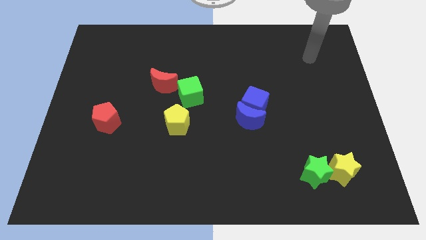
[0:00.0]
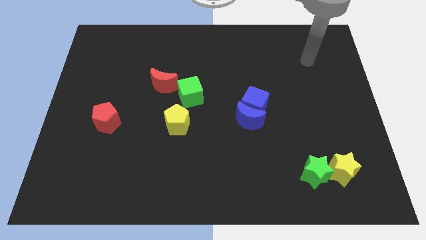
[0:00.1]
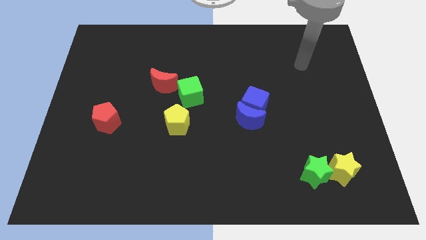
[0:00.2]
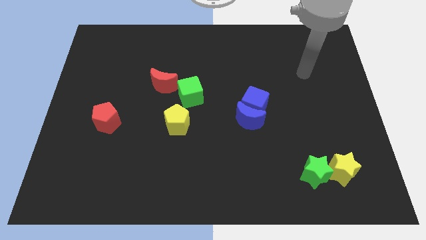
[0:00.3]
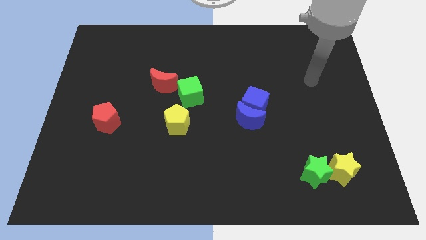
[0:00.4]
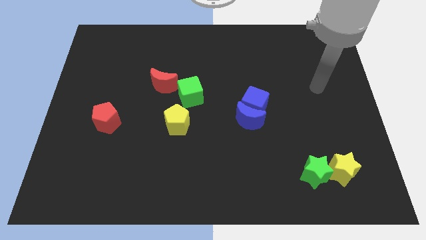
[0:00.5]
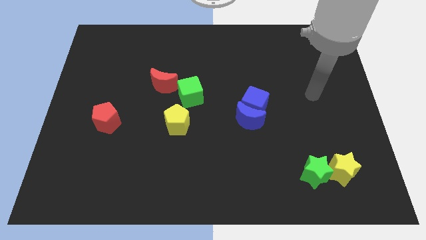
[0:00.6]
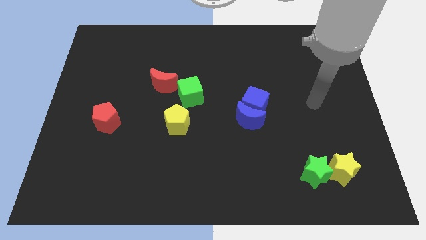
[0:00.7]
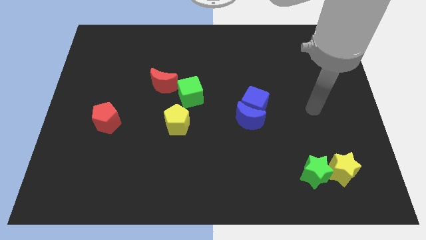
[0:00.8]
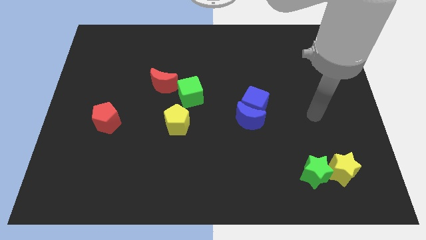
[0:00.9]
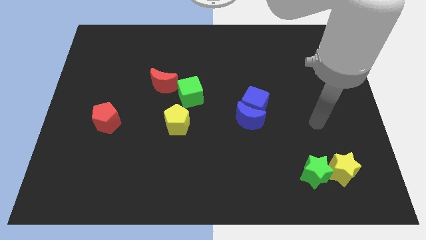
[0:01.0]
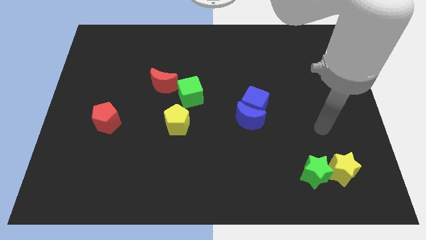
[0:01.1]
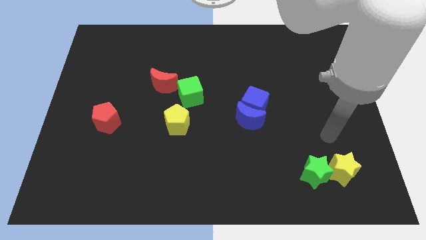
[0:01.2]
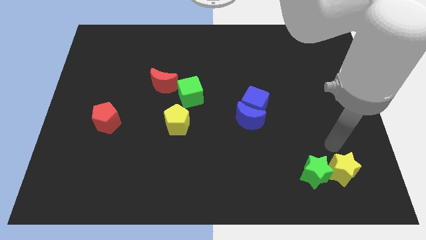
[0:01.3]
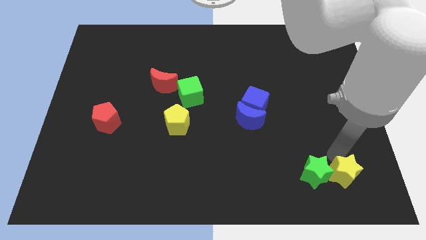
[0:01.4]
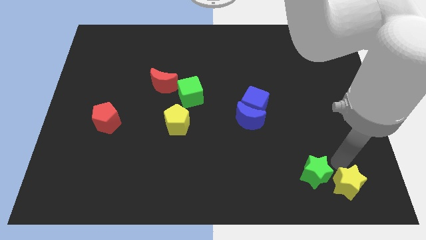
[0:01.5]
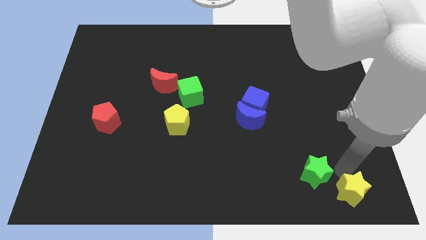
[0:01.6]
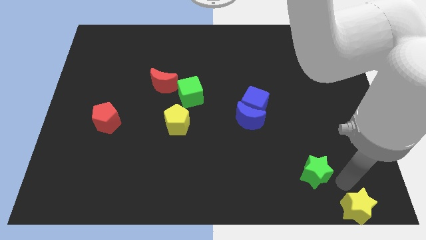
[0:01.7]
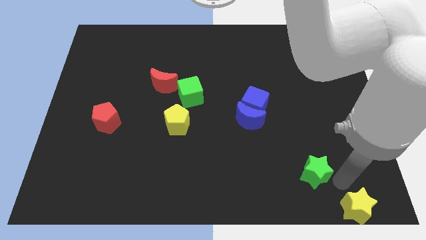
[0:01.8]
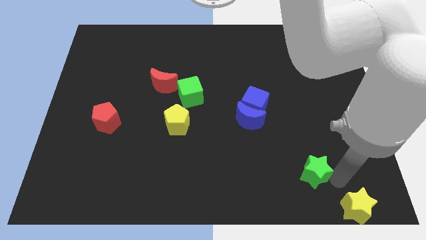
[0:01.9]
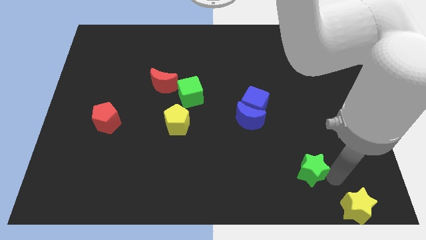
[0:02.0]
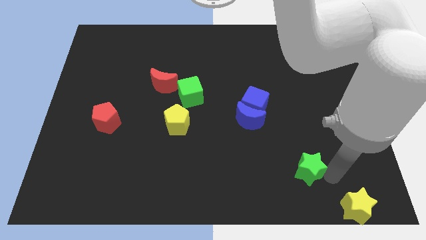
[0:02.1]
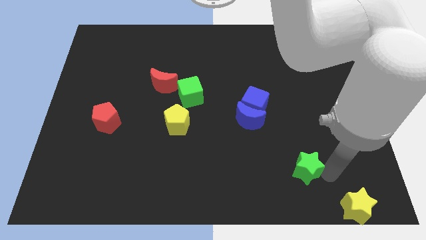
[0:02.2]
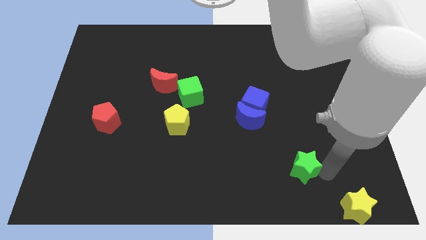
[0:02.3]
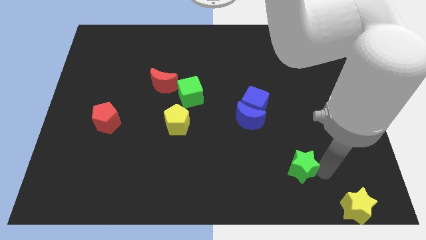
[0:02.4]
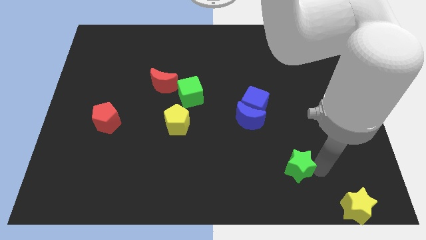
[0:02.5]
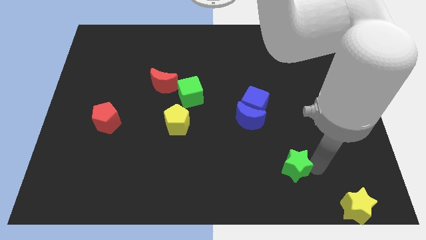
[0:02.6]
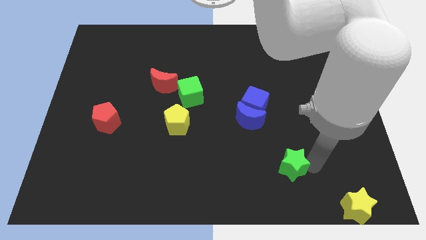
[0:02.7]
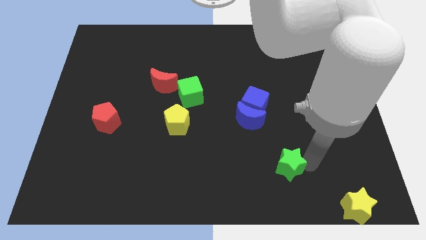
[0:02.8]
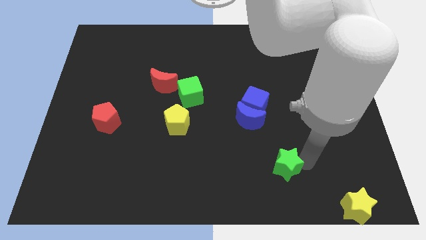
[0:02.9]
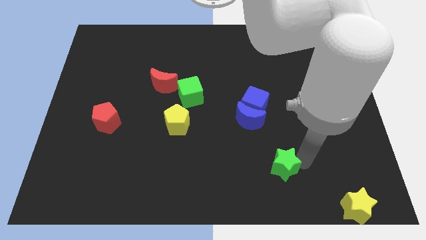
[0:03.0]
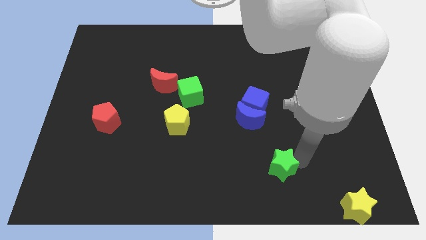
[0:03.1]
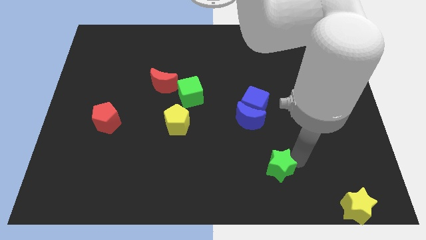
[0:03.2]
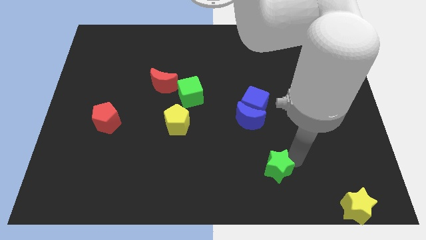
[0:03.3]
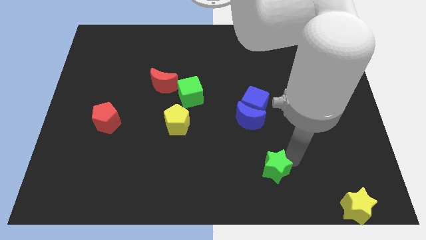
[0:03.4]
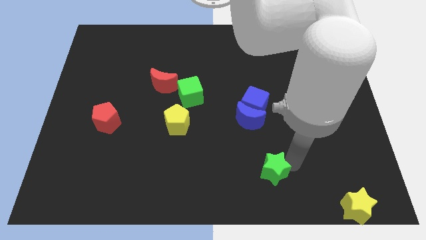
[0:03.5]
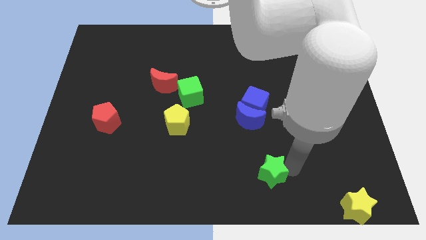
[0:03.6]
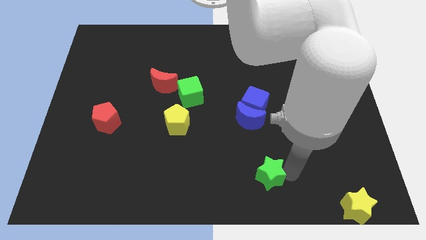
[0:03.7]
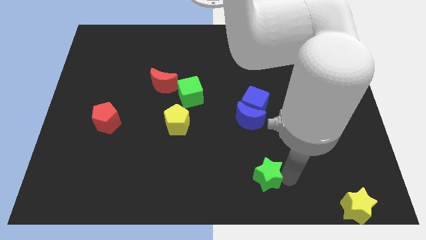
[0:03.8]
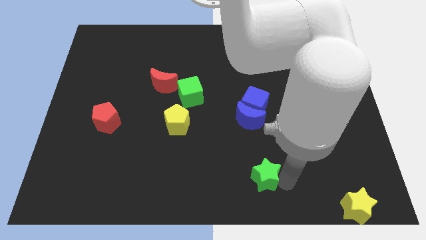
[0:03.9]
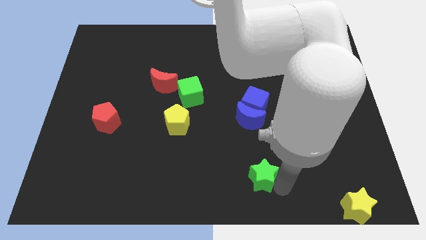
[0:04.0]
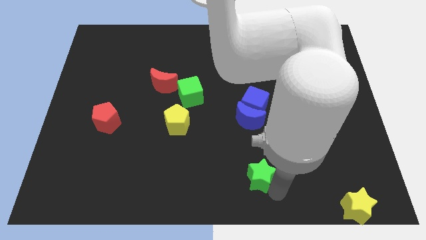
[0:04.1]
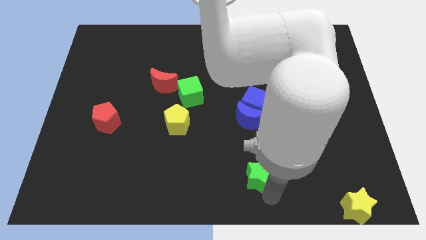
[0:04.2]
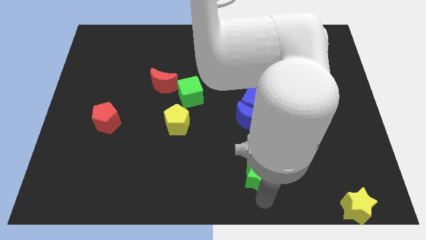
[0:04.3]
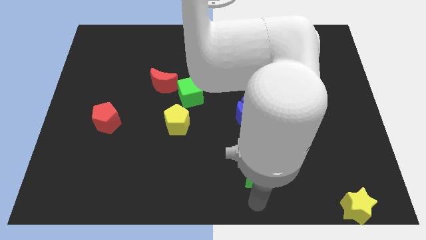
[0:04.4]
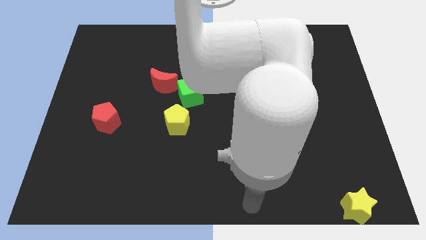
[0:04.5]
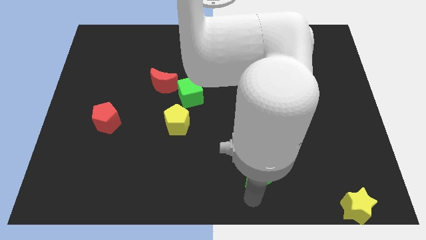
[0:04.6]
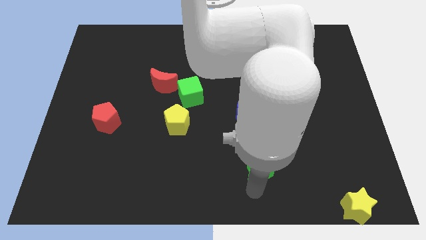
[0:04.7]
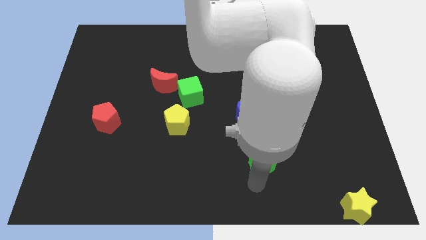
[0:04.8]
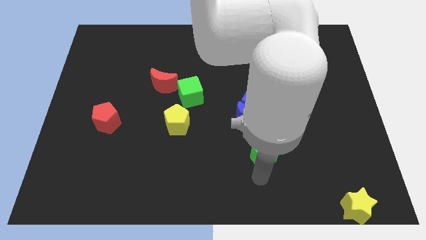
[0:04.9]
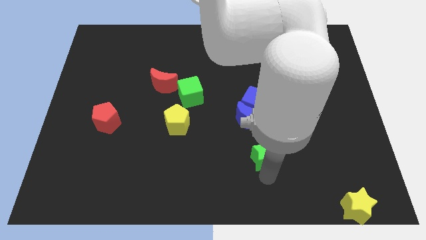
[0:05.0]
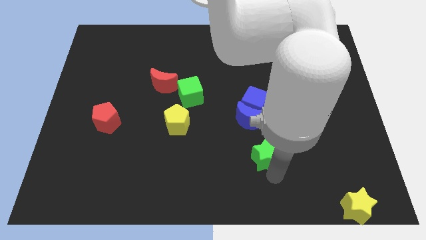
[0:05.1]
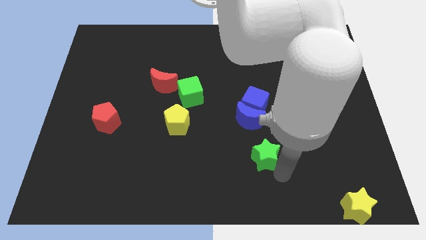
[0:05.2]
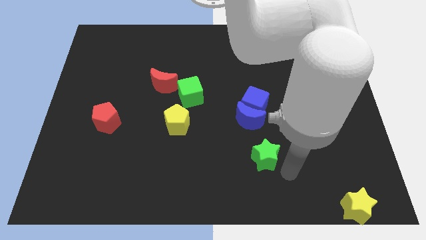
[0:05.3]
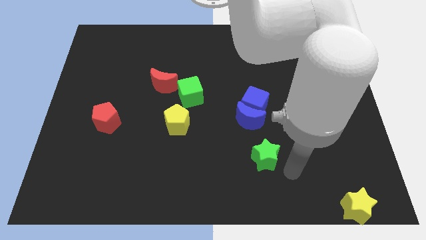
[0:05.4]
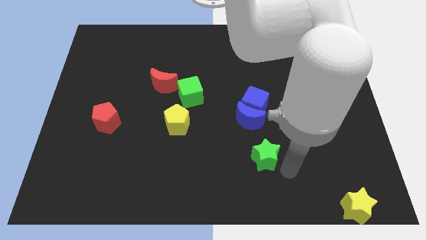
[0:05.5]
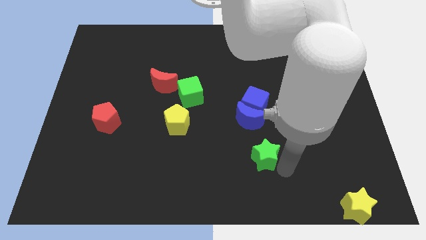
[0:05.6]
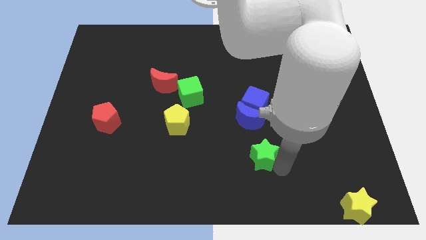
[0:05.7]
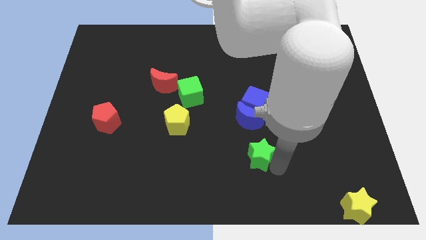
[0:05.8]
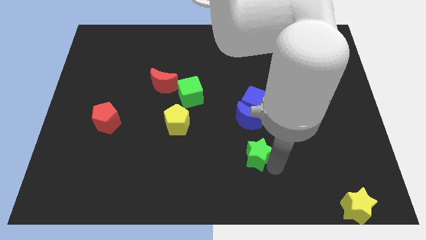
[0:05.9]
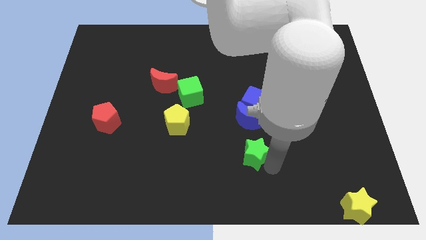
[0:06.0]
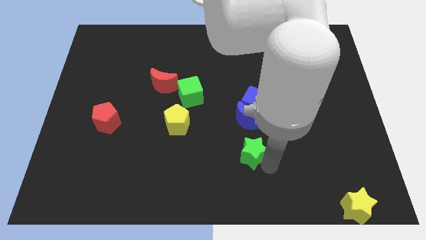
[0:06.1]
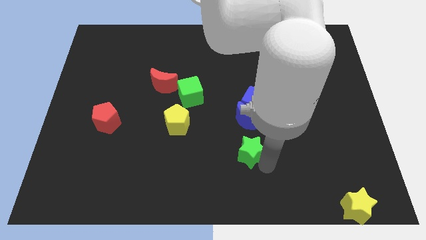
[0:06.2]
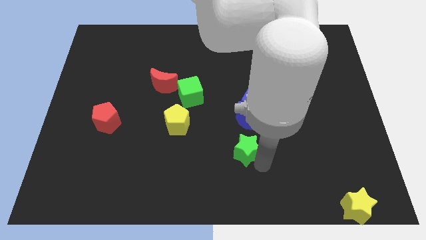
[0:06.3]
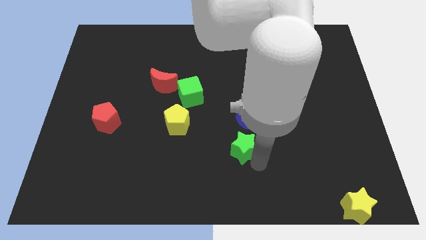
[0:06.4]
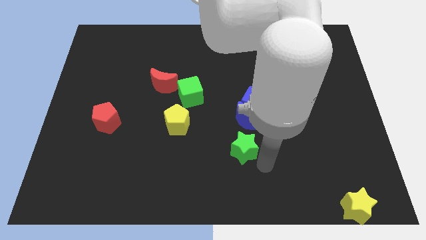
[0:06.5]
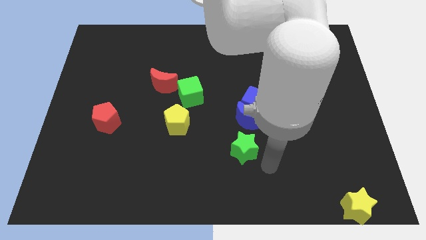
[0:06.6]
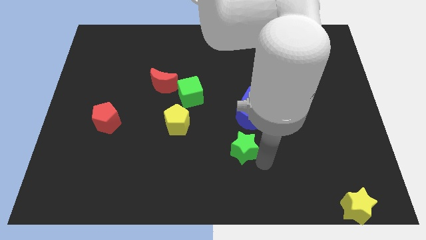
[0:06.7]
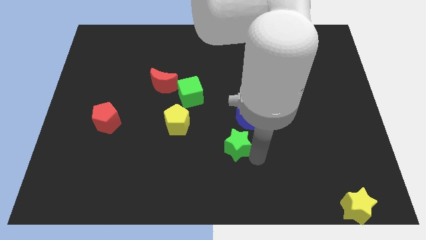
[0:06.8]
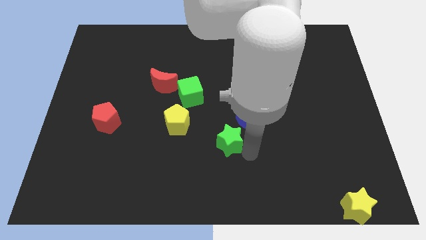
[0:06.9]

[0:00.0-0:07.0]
slide the green star to the center
